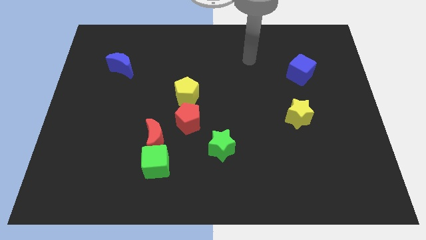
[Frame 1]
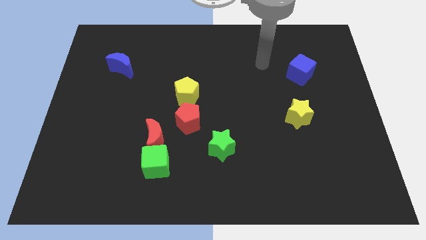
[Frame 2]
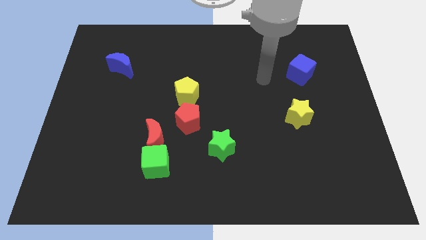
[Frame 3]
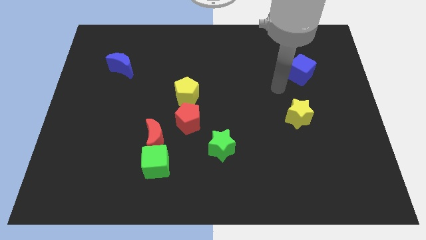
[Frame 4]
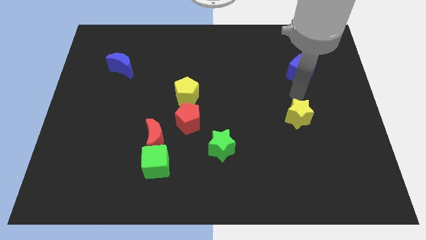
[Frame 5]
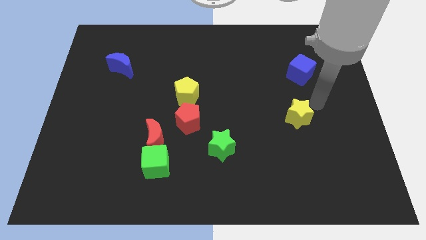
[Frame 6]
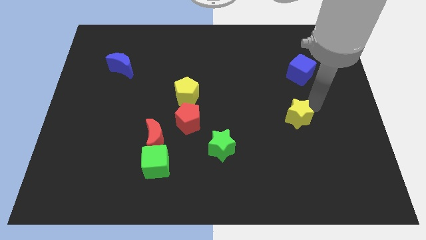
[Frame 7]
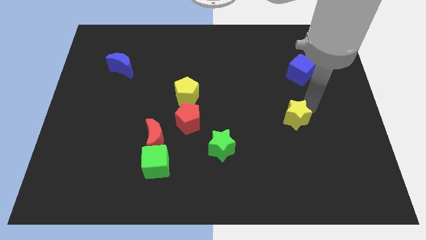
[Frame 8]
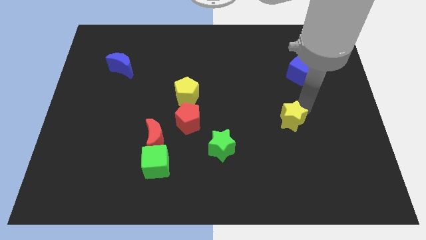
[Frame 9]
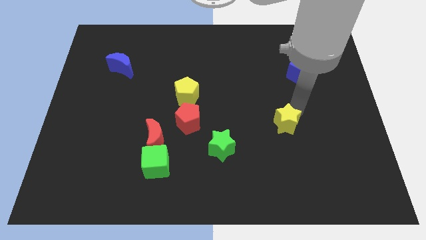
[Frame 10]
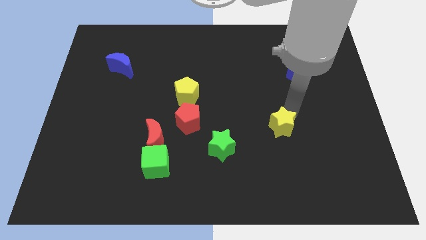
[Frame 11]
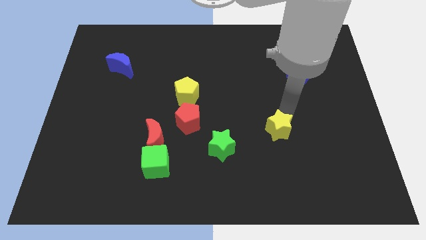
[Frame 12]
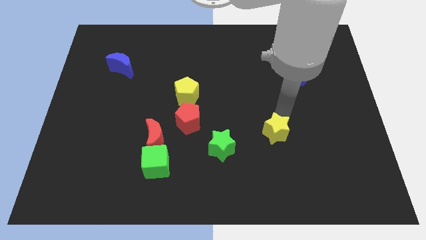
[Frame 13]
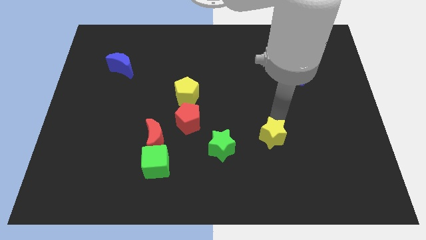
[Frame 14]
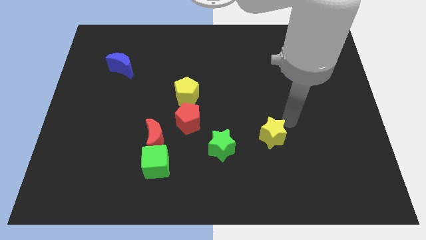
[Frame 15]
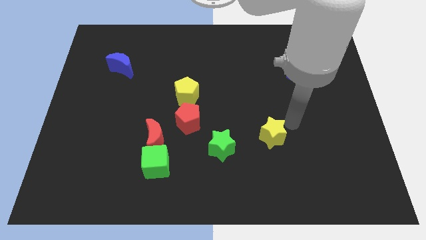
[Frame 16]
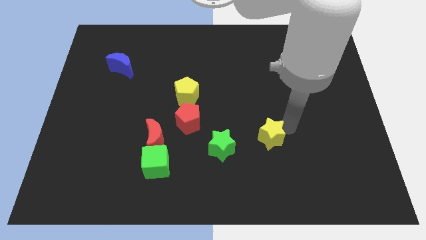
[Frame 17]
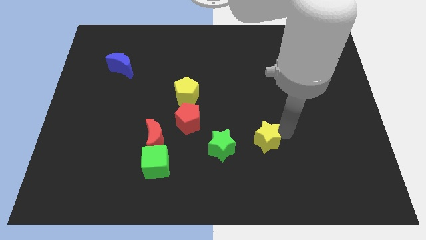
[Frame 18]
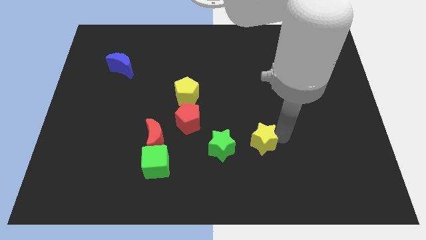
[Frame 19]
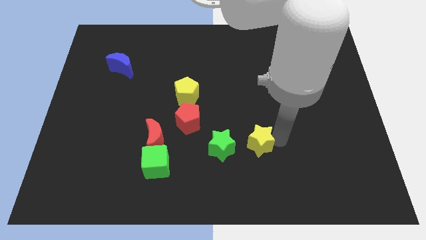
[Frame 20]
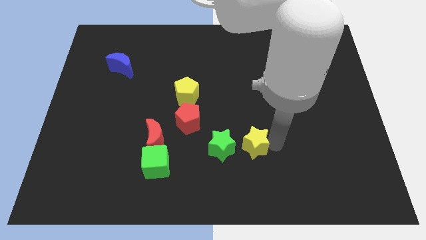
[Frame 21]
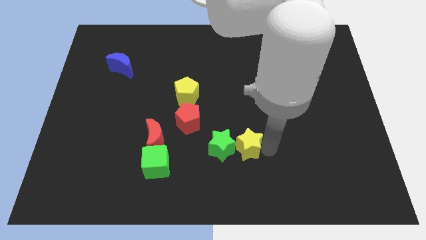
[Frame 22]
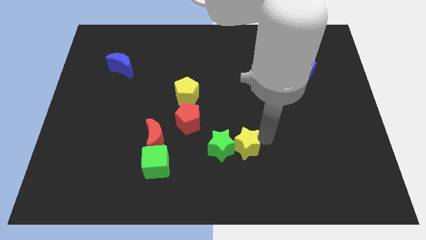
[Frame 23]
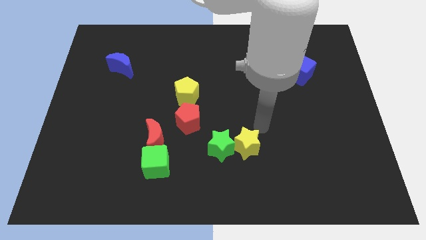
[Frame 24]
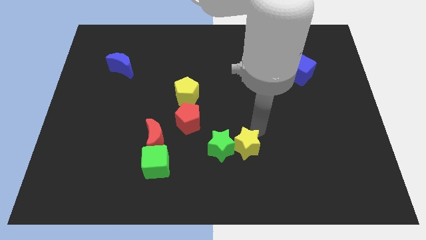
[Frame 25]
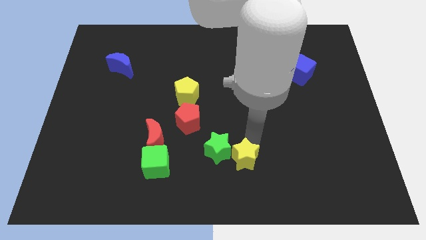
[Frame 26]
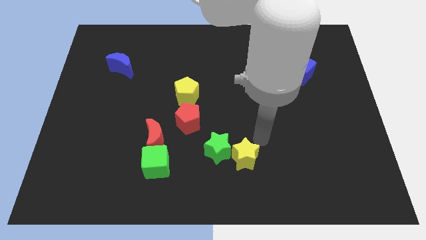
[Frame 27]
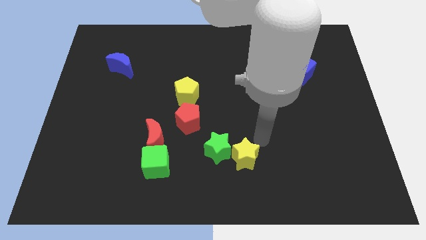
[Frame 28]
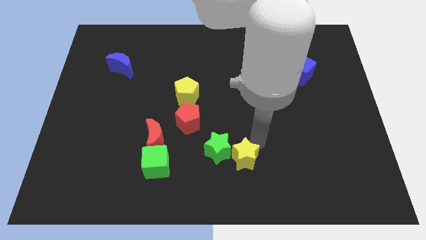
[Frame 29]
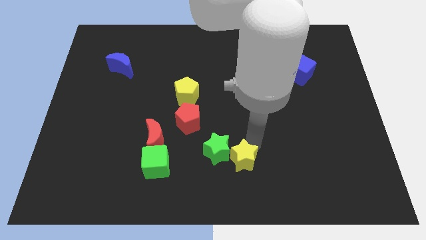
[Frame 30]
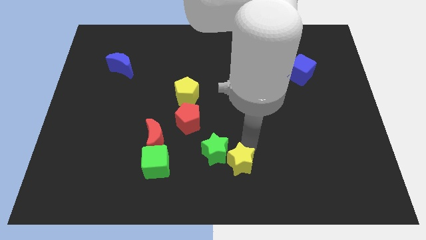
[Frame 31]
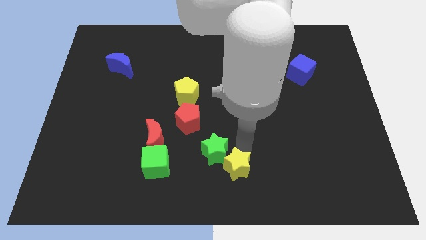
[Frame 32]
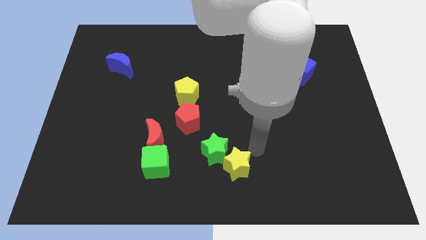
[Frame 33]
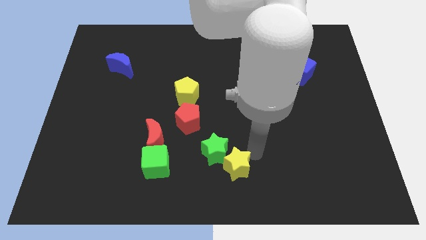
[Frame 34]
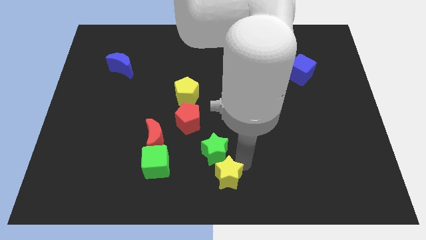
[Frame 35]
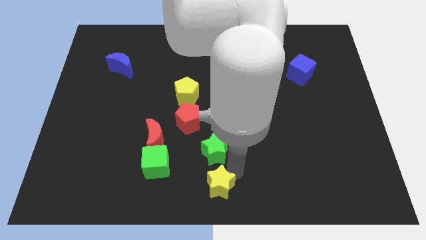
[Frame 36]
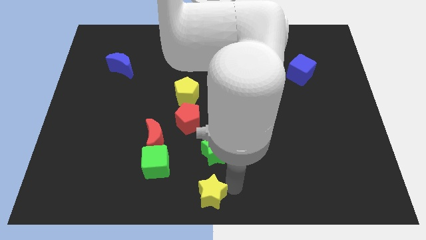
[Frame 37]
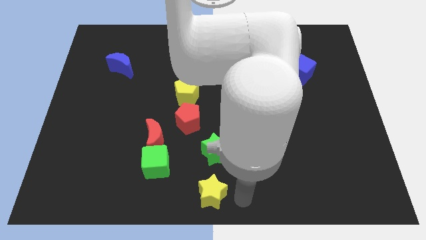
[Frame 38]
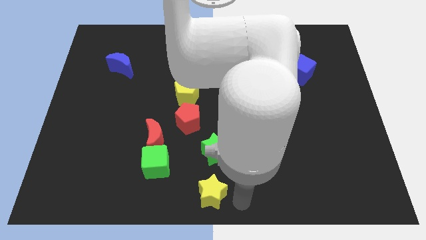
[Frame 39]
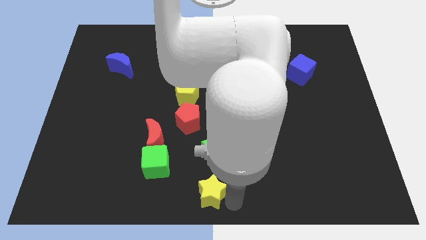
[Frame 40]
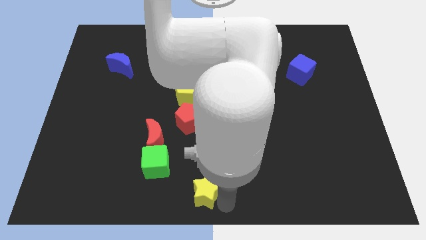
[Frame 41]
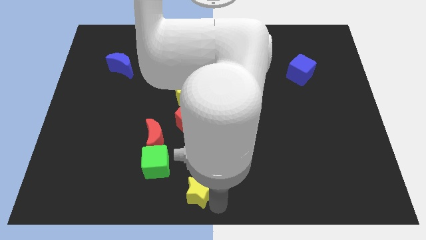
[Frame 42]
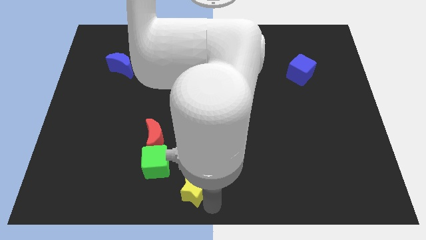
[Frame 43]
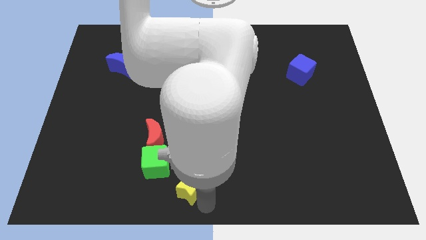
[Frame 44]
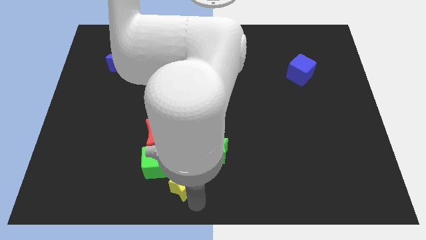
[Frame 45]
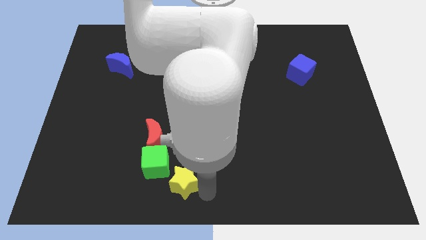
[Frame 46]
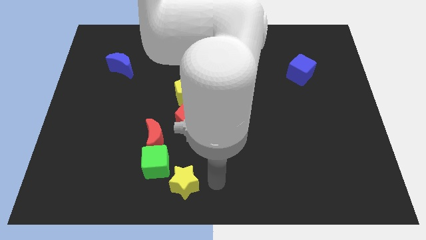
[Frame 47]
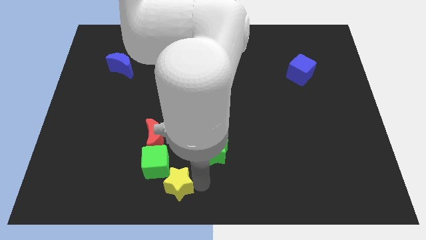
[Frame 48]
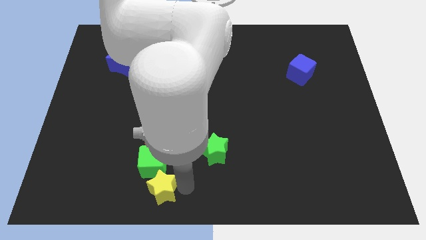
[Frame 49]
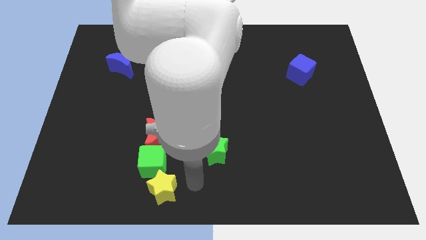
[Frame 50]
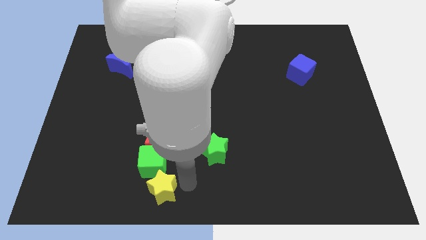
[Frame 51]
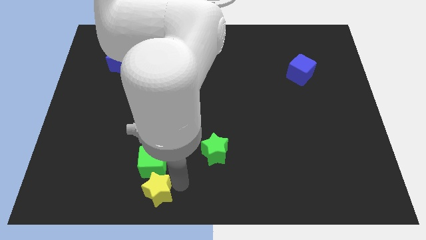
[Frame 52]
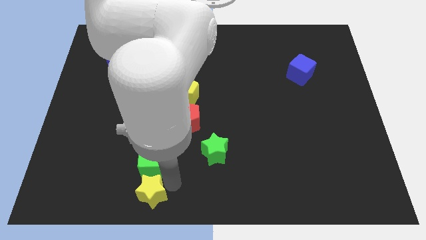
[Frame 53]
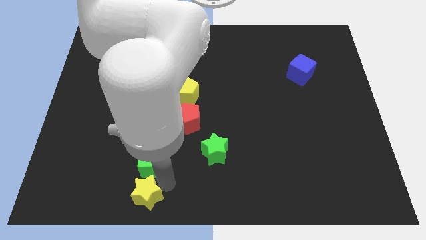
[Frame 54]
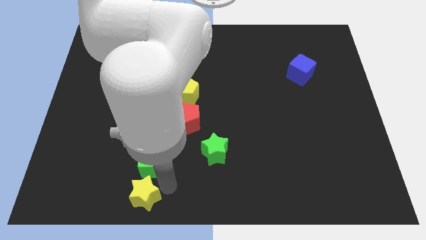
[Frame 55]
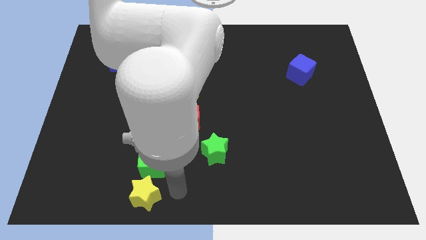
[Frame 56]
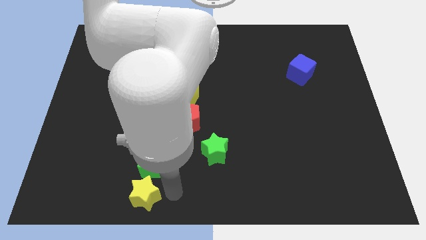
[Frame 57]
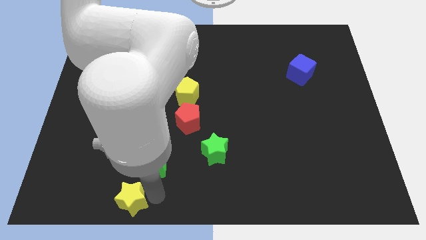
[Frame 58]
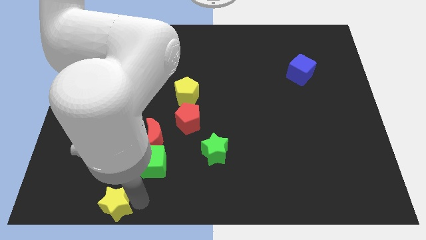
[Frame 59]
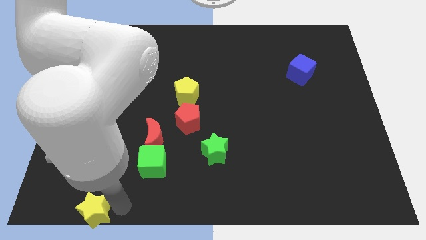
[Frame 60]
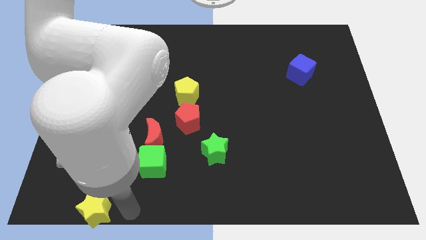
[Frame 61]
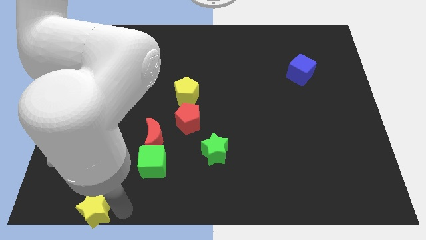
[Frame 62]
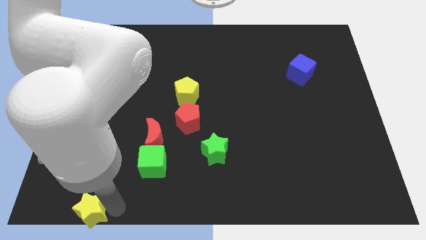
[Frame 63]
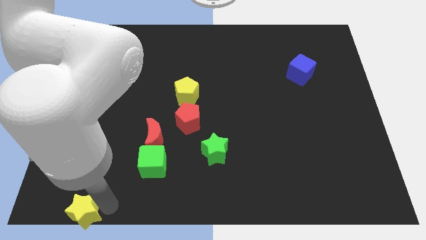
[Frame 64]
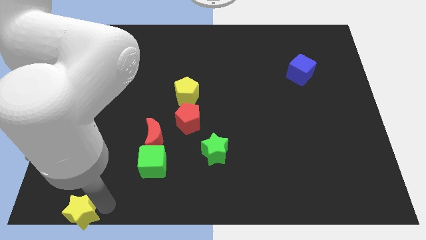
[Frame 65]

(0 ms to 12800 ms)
push the yellow star to the lower left corner
